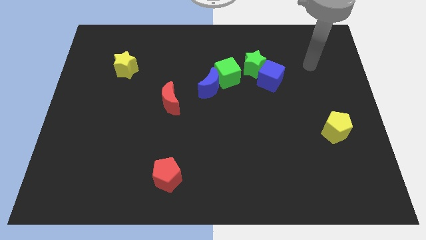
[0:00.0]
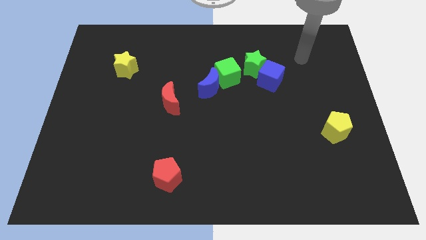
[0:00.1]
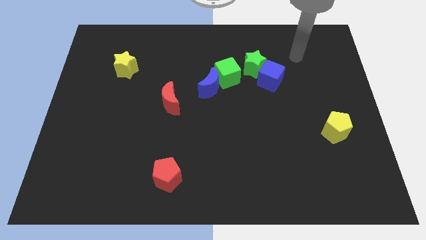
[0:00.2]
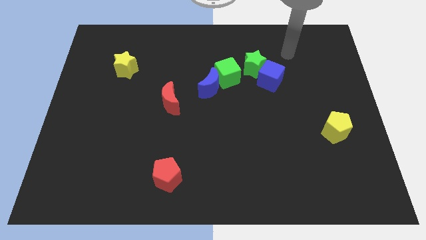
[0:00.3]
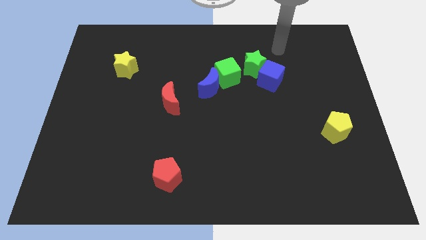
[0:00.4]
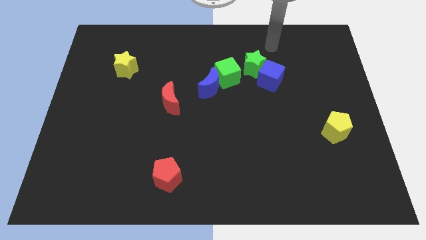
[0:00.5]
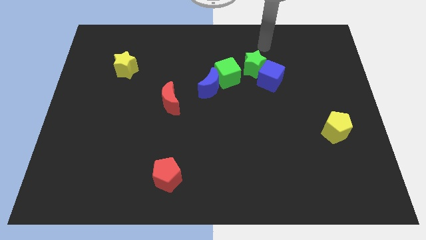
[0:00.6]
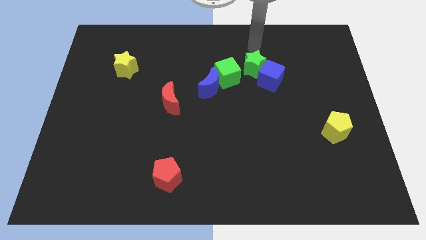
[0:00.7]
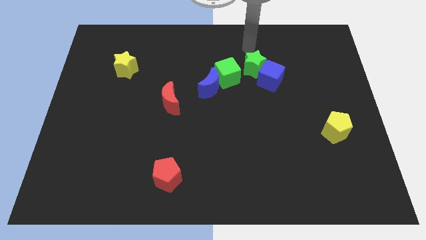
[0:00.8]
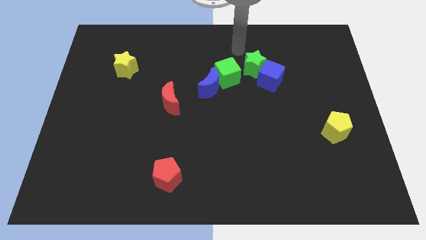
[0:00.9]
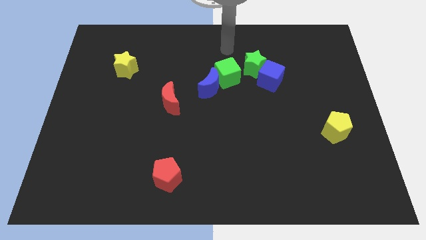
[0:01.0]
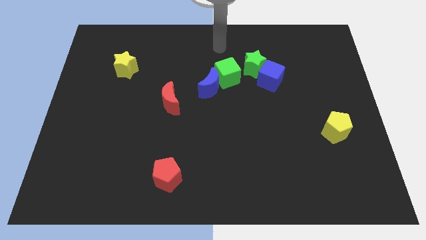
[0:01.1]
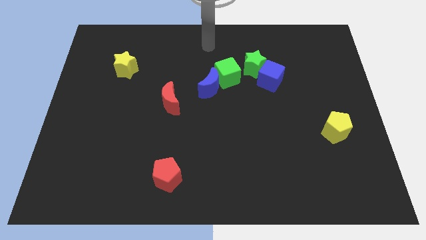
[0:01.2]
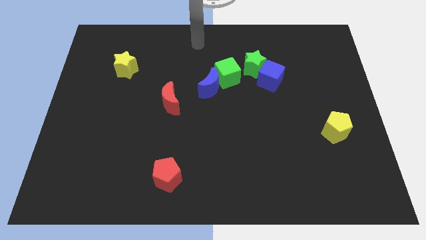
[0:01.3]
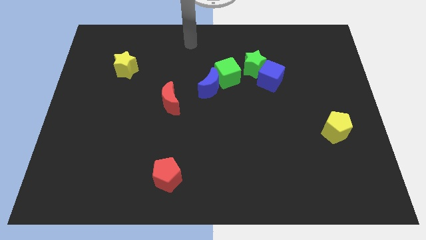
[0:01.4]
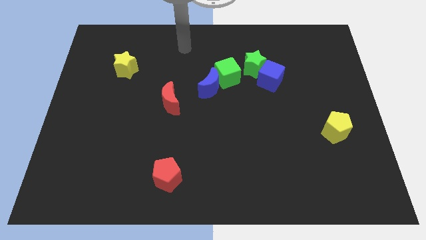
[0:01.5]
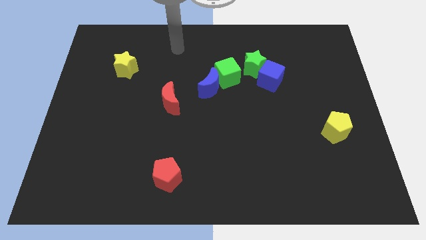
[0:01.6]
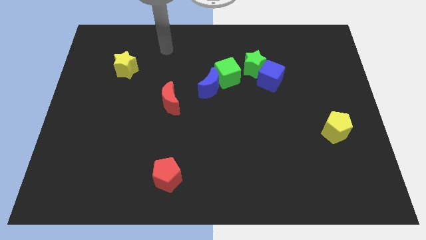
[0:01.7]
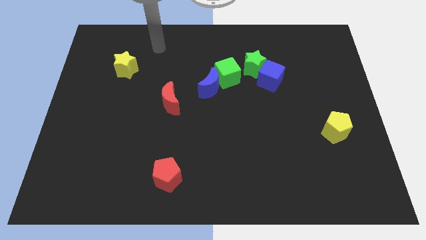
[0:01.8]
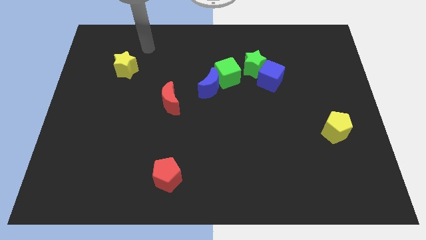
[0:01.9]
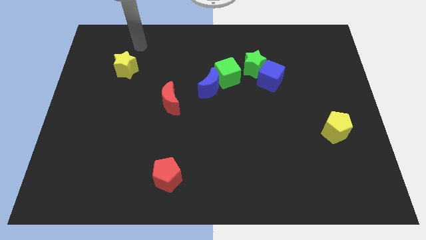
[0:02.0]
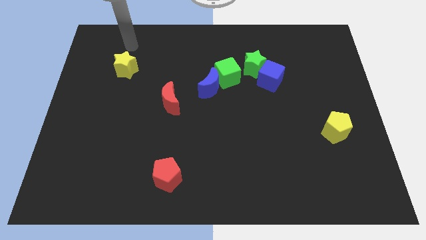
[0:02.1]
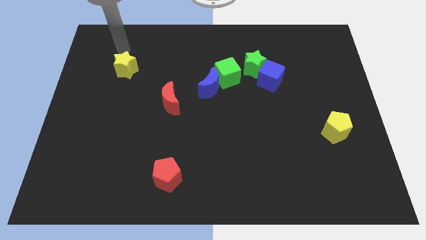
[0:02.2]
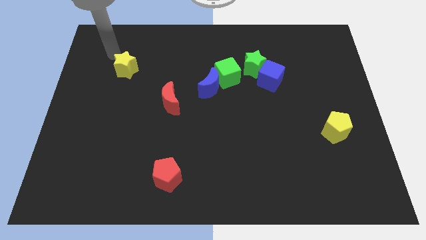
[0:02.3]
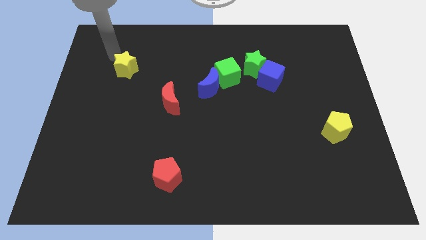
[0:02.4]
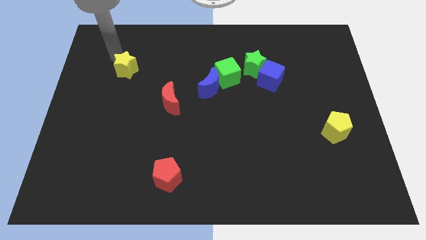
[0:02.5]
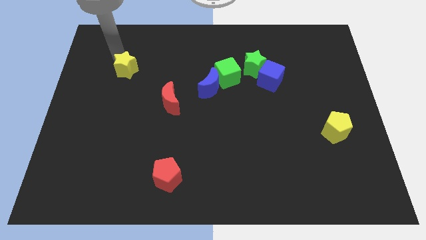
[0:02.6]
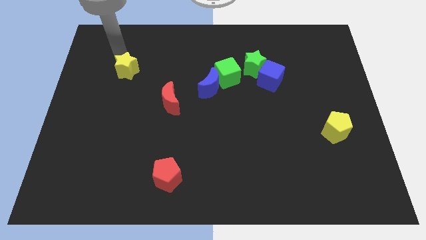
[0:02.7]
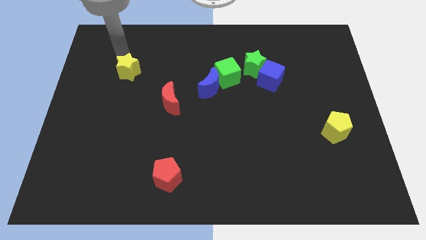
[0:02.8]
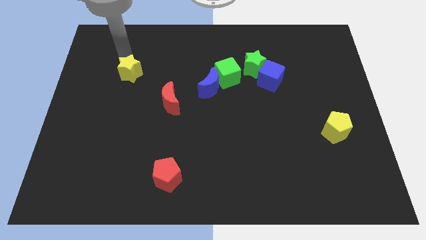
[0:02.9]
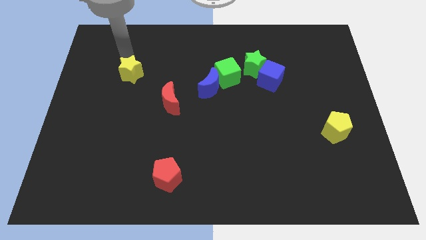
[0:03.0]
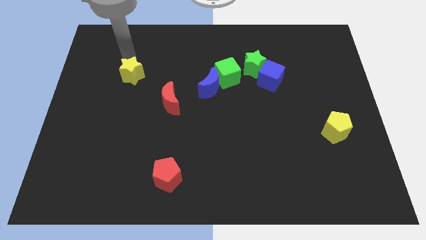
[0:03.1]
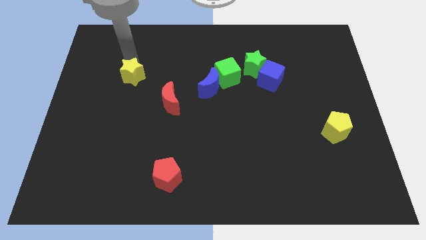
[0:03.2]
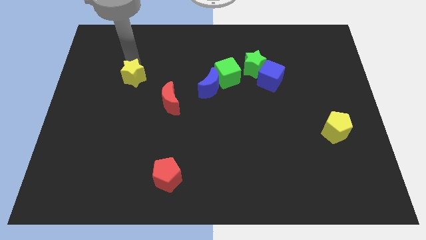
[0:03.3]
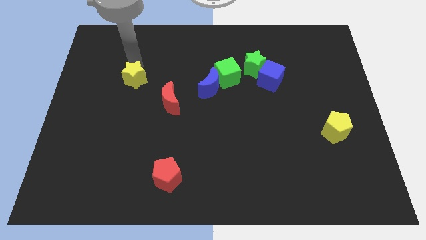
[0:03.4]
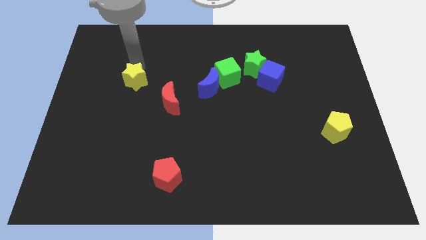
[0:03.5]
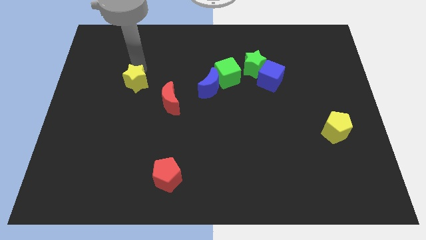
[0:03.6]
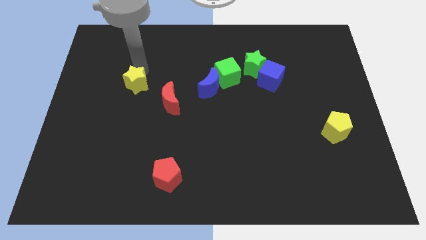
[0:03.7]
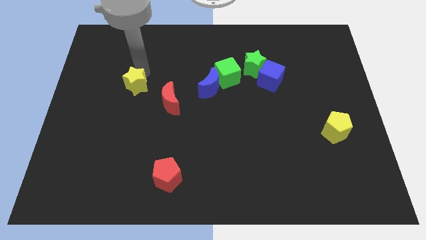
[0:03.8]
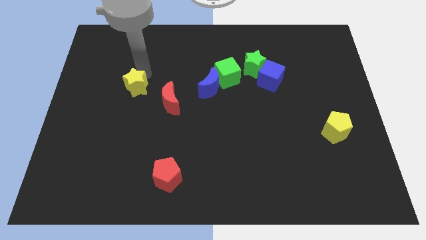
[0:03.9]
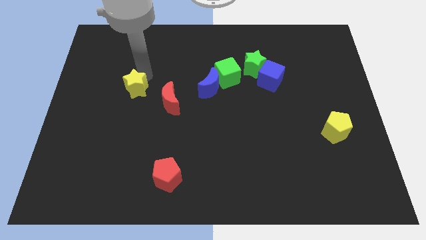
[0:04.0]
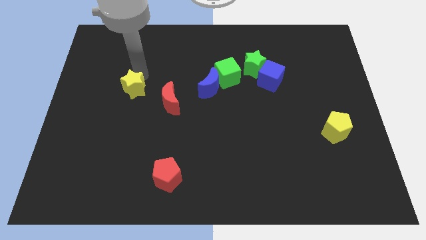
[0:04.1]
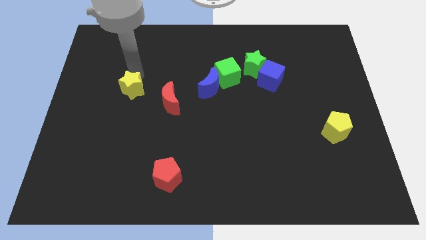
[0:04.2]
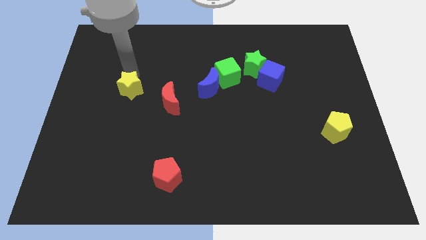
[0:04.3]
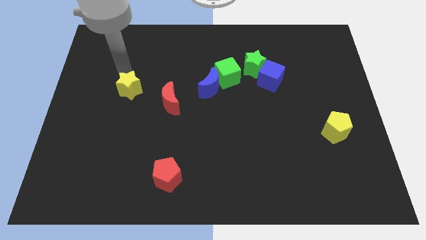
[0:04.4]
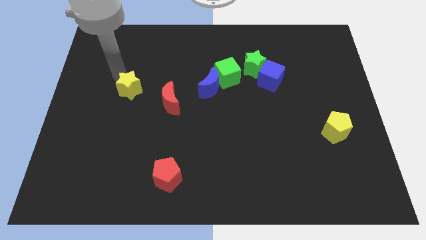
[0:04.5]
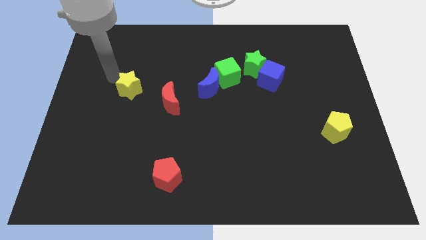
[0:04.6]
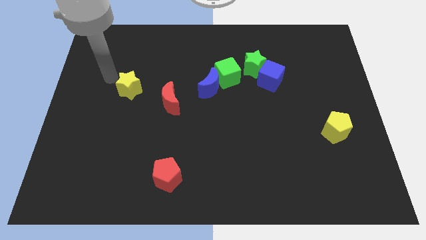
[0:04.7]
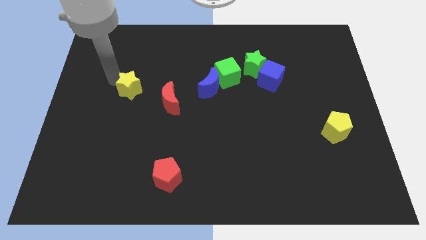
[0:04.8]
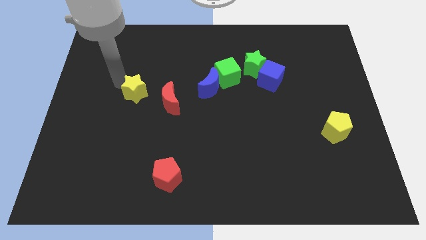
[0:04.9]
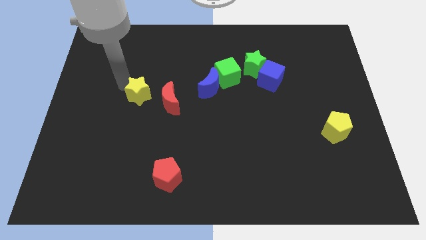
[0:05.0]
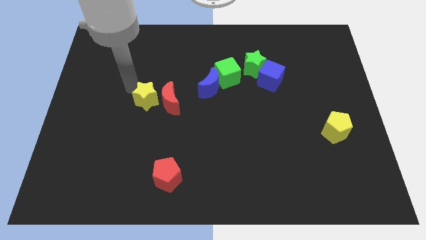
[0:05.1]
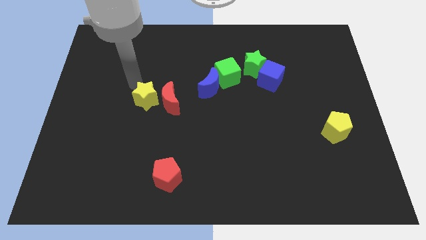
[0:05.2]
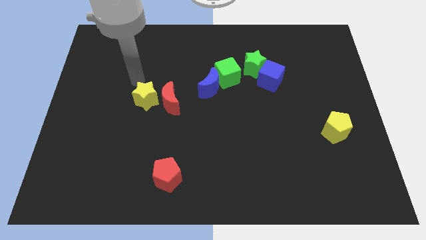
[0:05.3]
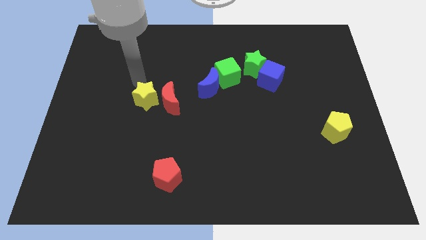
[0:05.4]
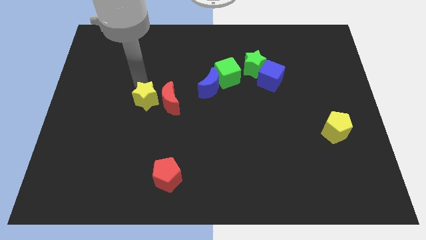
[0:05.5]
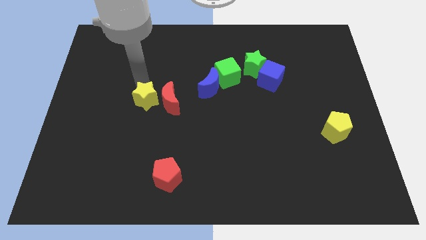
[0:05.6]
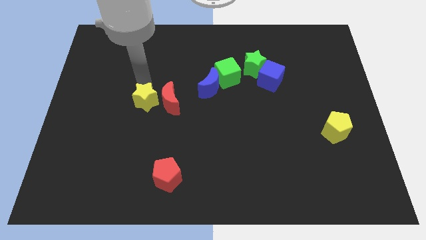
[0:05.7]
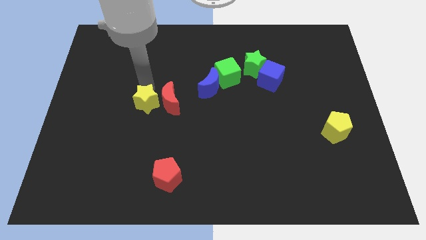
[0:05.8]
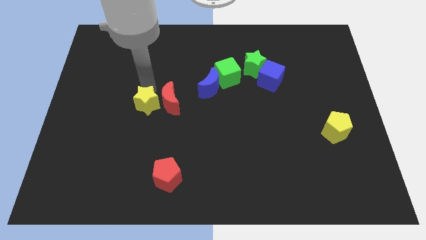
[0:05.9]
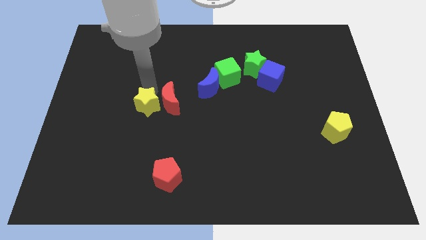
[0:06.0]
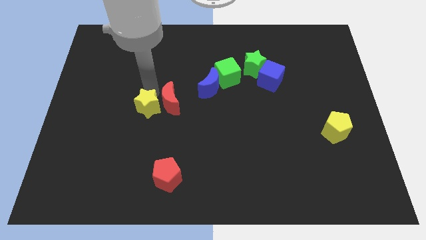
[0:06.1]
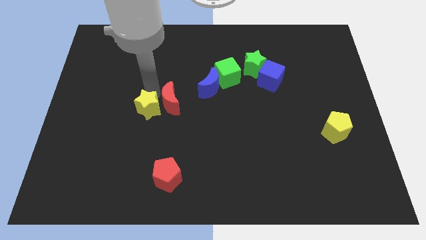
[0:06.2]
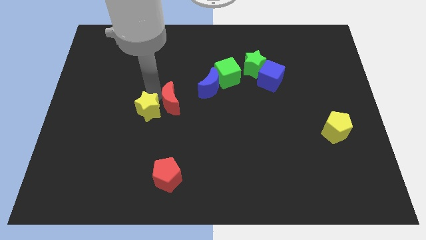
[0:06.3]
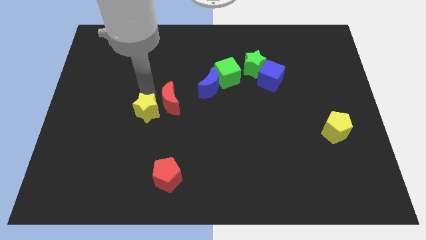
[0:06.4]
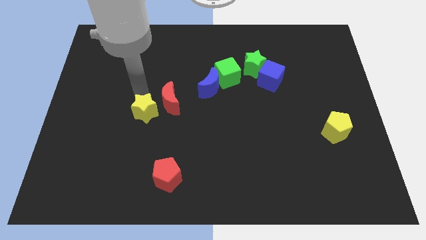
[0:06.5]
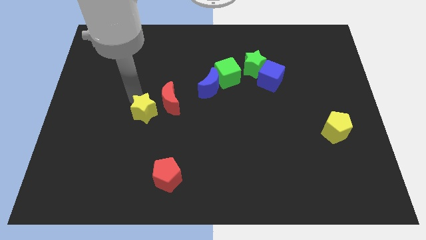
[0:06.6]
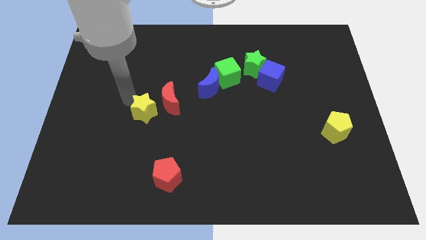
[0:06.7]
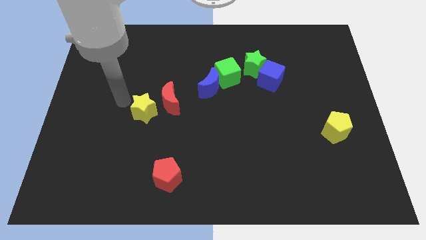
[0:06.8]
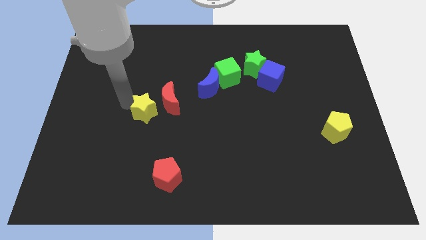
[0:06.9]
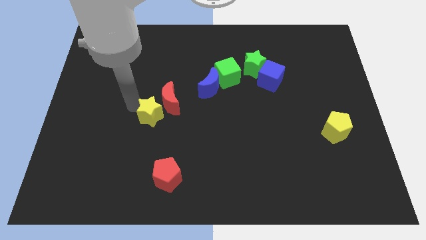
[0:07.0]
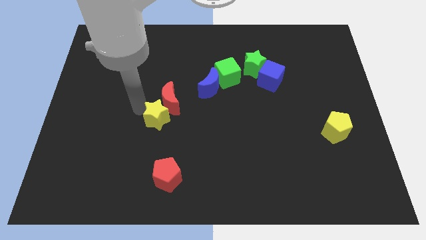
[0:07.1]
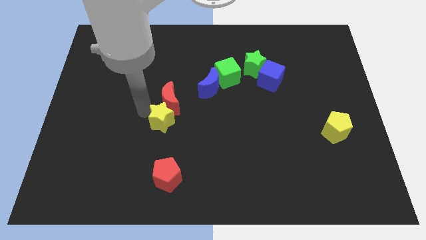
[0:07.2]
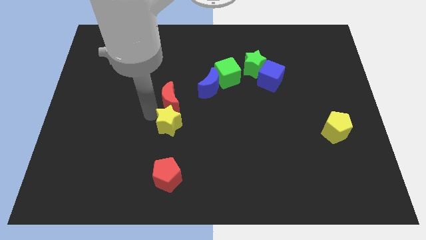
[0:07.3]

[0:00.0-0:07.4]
push the yellow star diagonally downwards and to the right

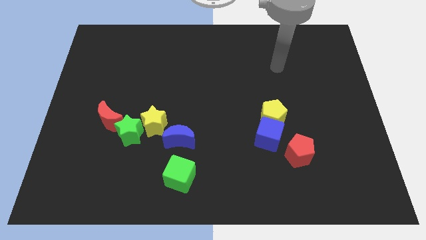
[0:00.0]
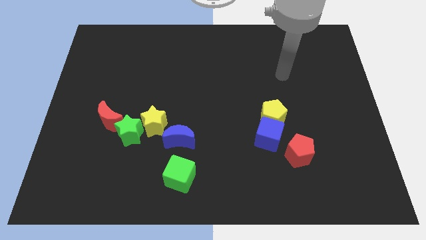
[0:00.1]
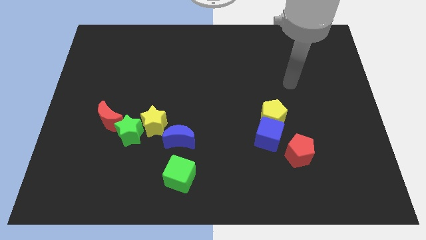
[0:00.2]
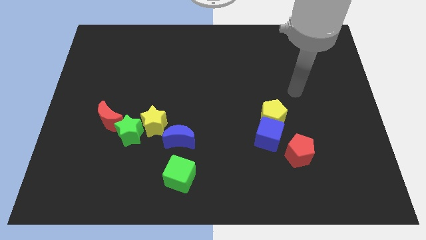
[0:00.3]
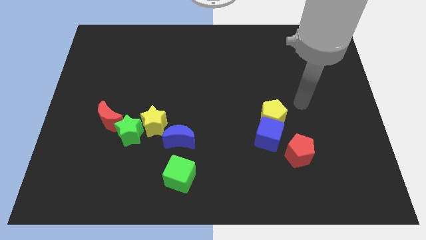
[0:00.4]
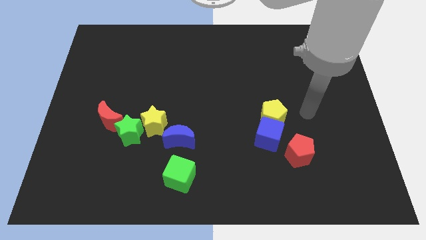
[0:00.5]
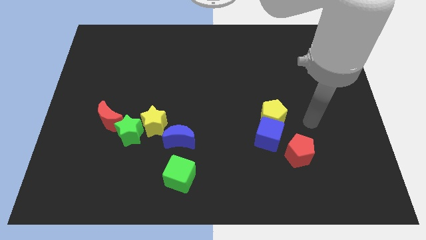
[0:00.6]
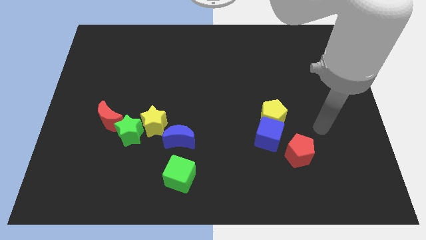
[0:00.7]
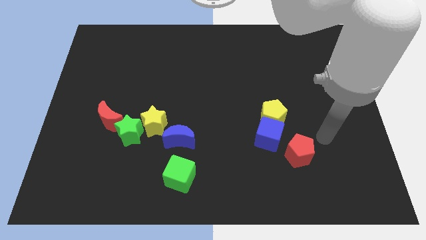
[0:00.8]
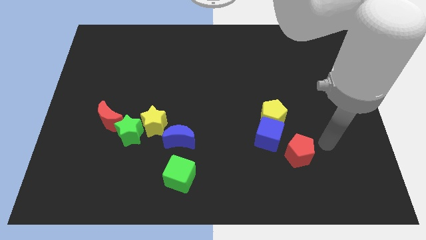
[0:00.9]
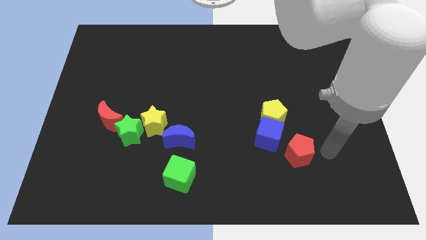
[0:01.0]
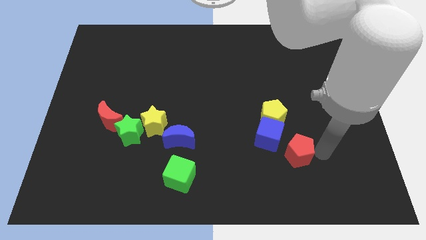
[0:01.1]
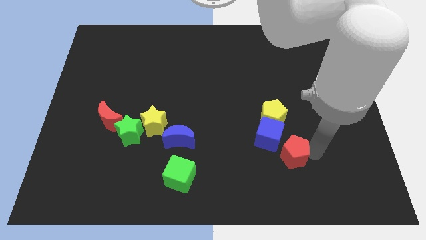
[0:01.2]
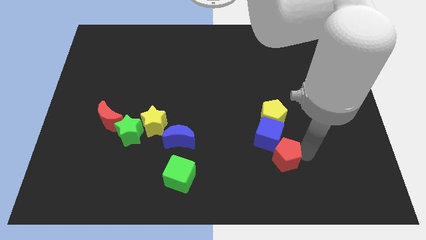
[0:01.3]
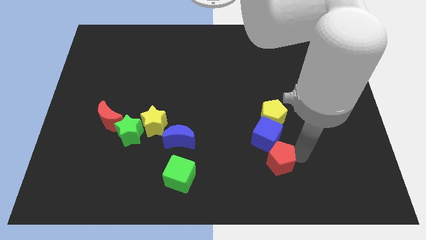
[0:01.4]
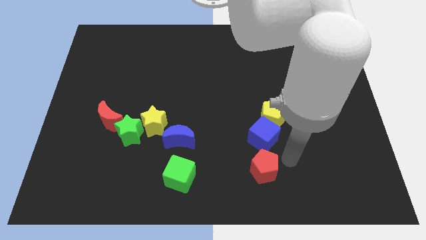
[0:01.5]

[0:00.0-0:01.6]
move the red pentagon a bit left
